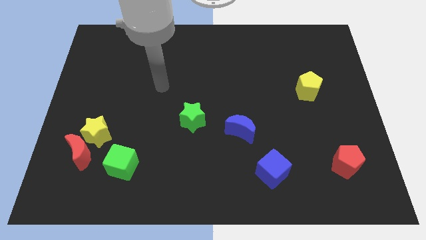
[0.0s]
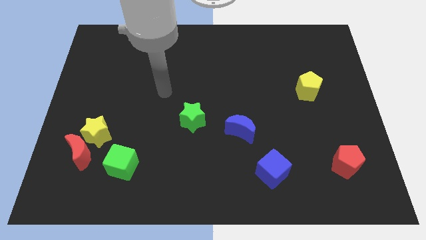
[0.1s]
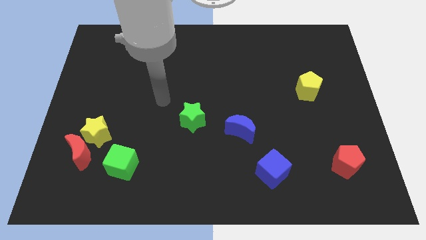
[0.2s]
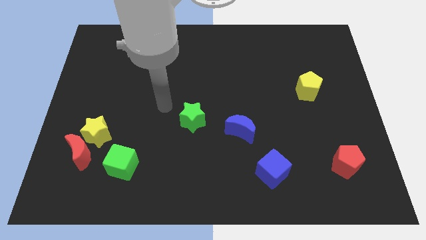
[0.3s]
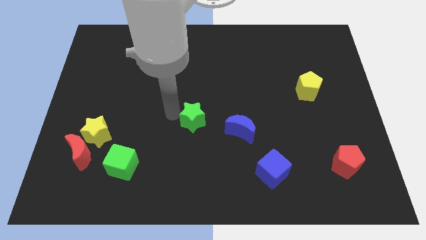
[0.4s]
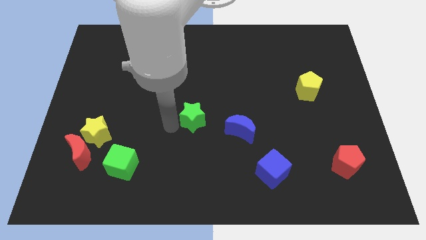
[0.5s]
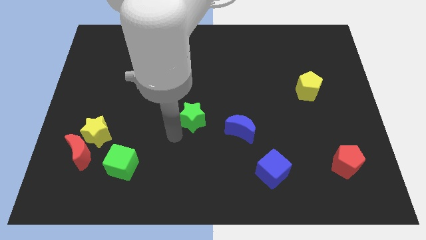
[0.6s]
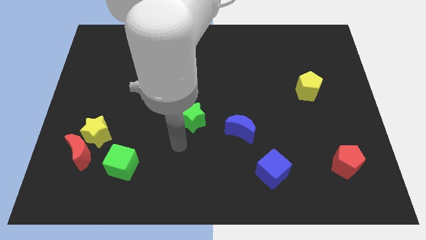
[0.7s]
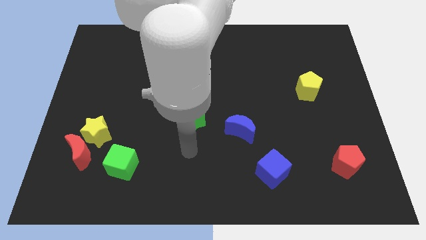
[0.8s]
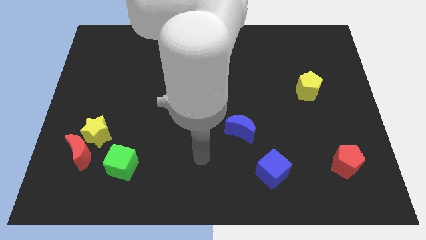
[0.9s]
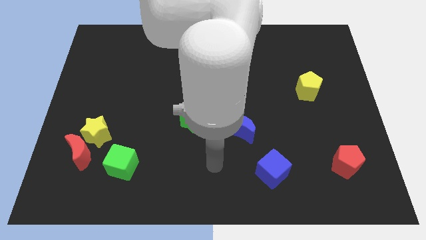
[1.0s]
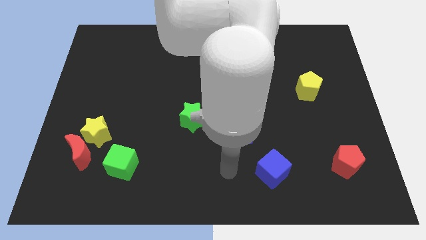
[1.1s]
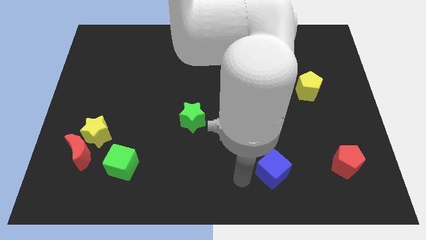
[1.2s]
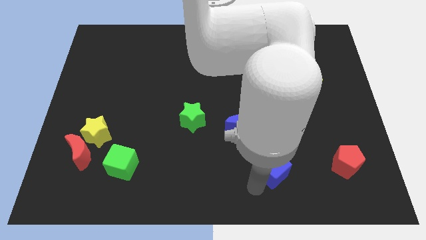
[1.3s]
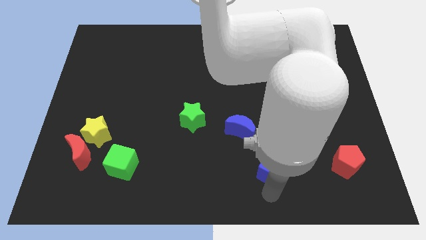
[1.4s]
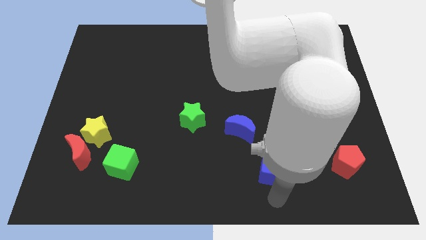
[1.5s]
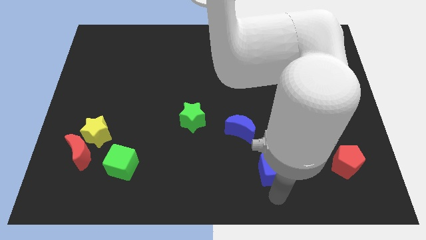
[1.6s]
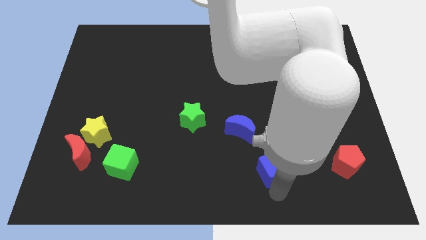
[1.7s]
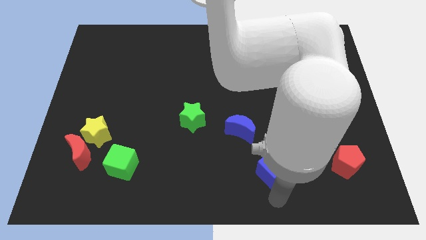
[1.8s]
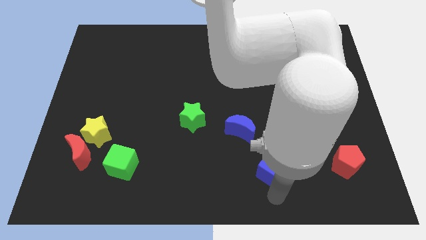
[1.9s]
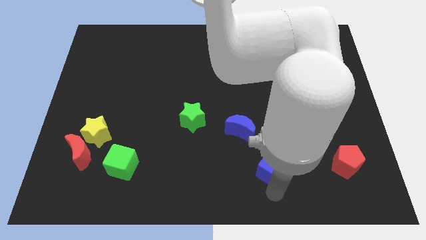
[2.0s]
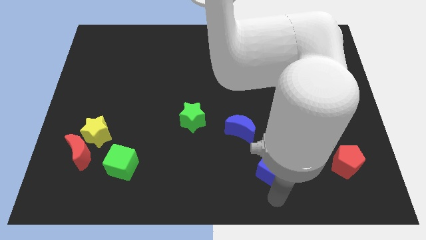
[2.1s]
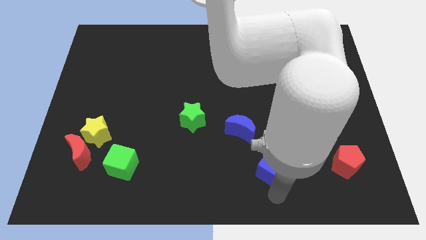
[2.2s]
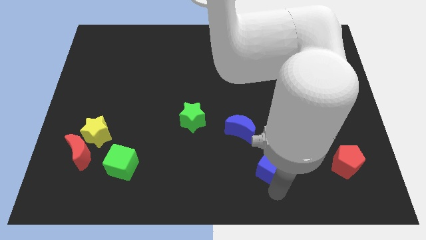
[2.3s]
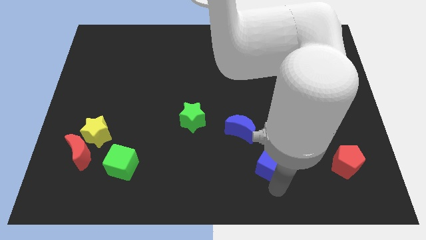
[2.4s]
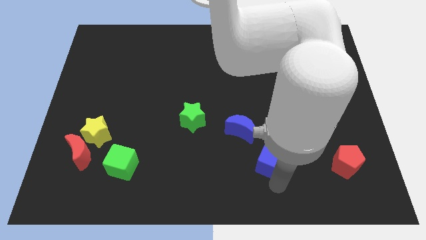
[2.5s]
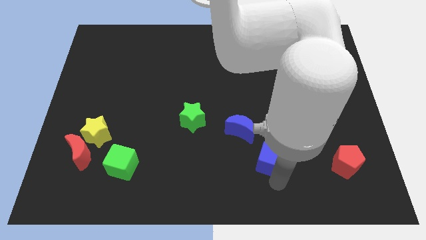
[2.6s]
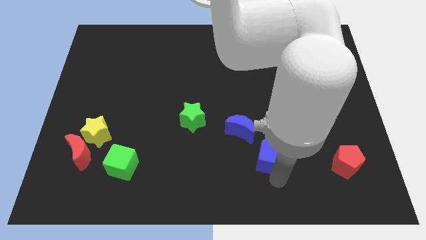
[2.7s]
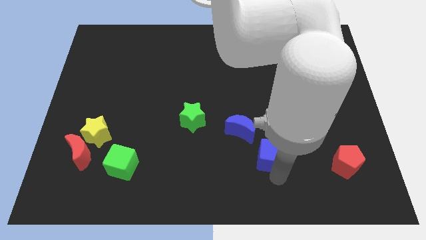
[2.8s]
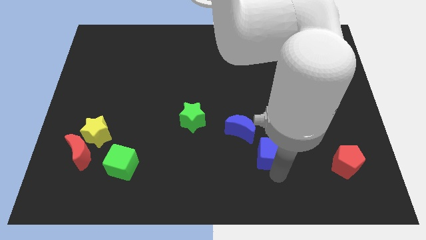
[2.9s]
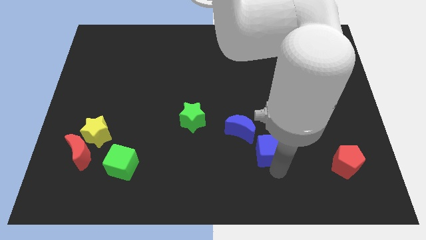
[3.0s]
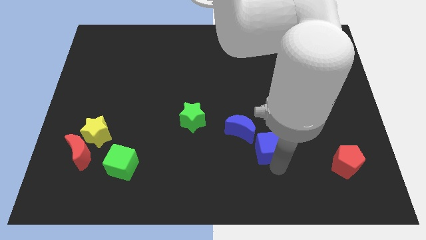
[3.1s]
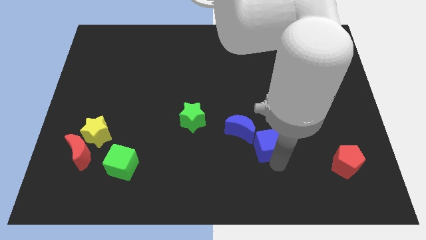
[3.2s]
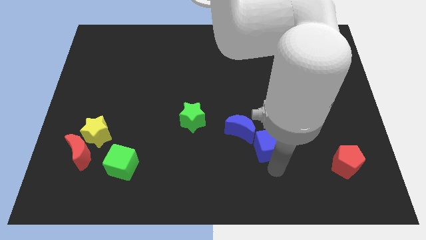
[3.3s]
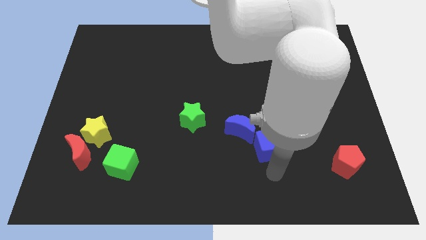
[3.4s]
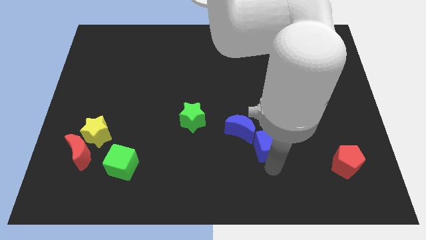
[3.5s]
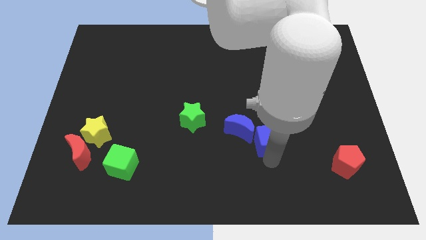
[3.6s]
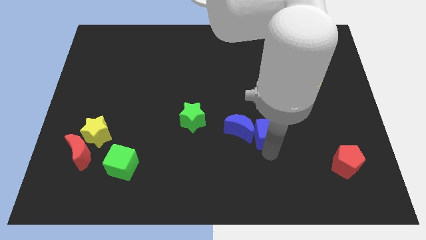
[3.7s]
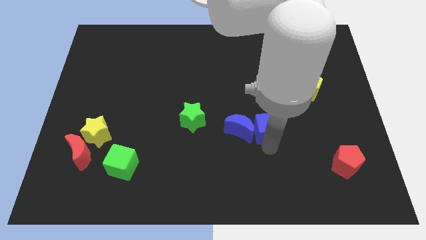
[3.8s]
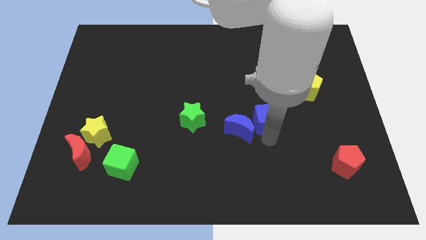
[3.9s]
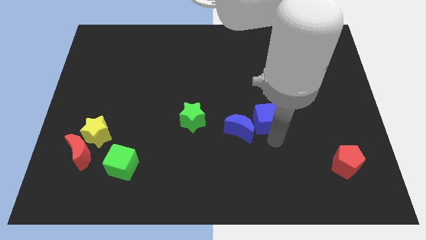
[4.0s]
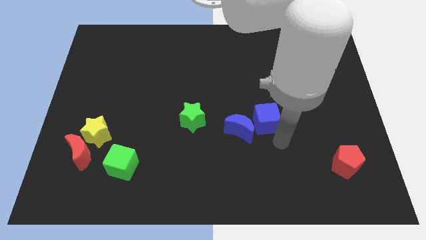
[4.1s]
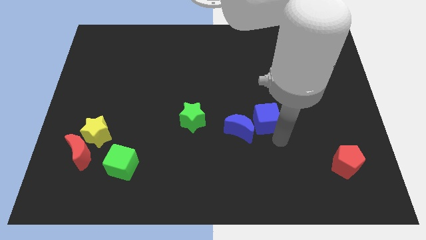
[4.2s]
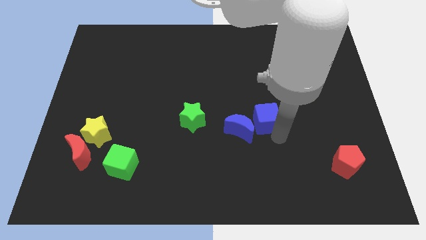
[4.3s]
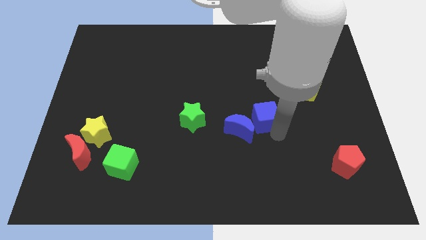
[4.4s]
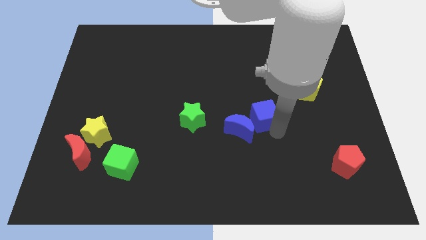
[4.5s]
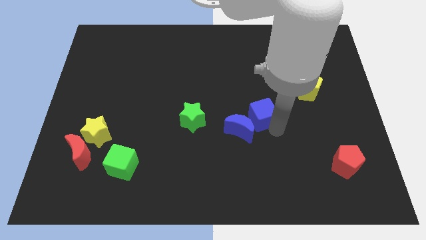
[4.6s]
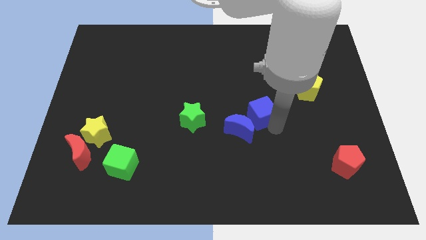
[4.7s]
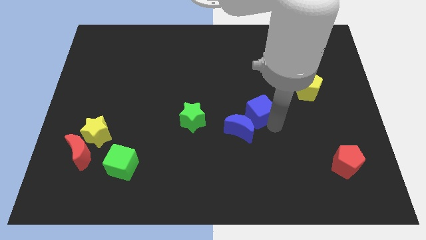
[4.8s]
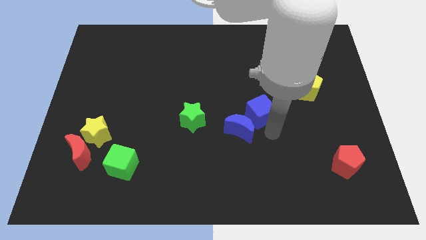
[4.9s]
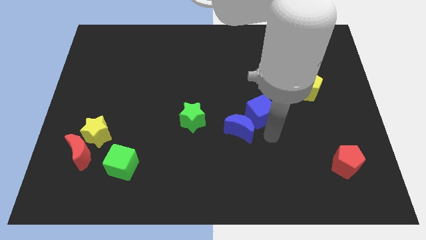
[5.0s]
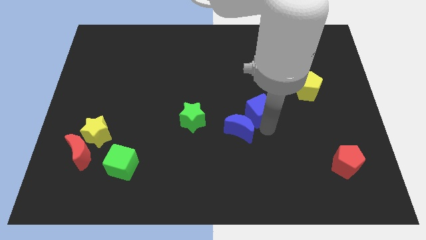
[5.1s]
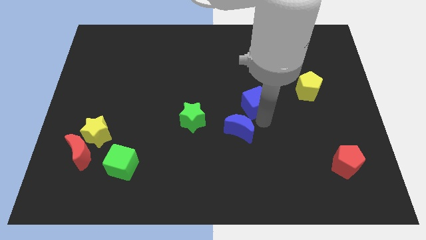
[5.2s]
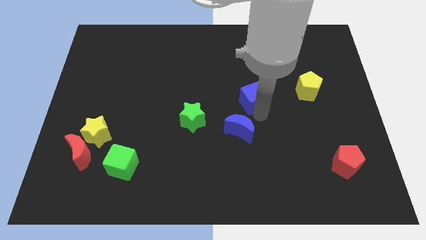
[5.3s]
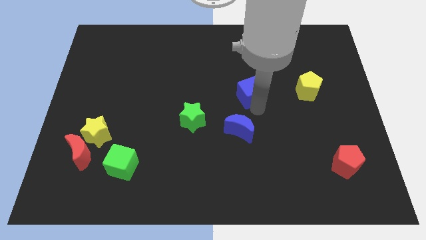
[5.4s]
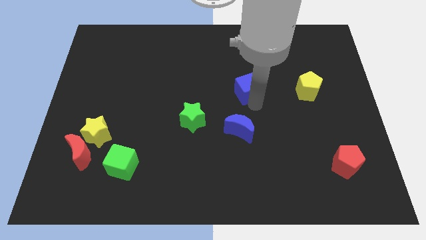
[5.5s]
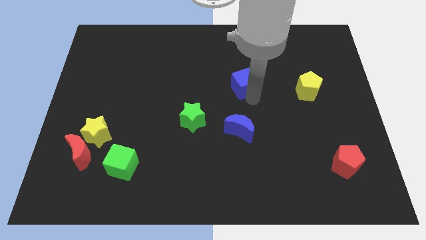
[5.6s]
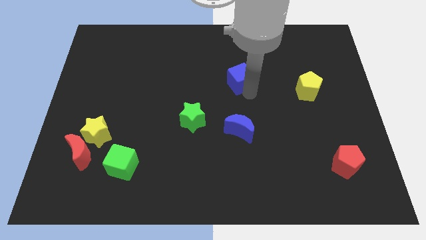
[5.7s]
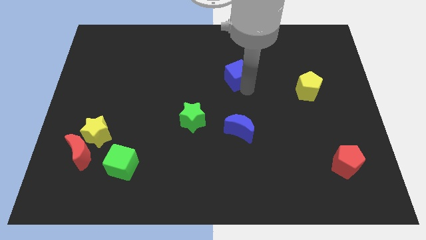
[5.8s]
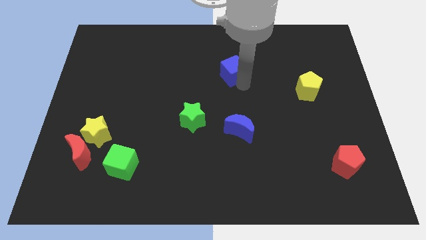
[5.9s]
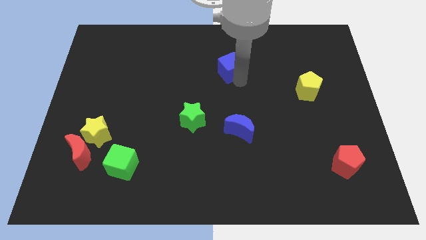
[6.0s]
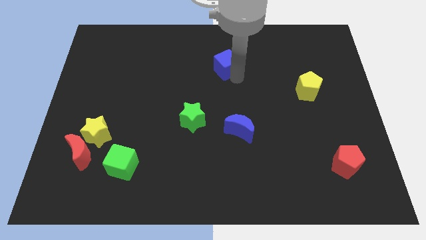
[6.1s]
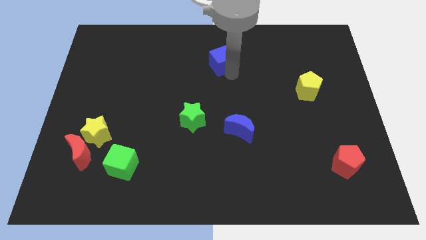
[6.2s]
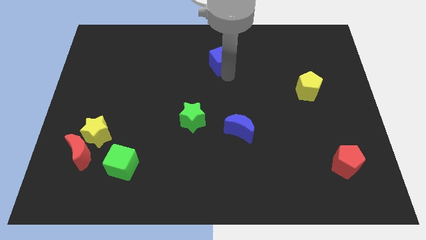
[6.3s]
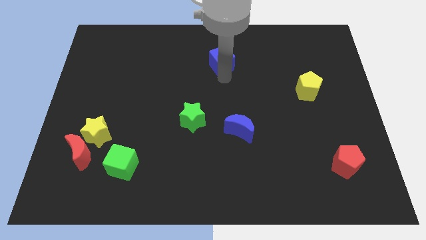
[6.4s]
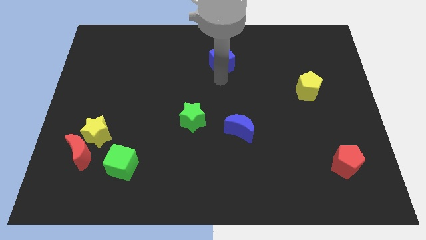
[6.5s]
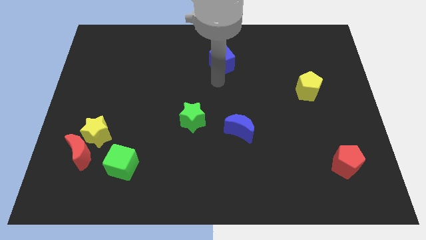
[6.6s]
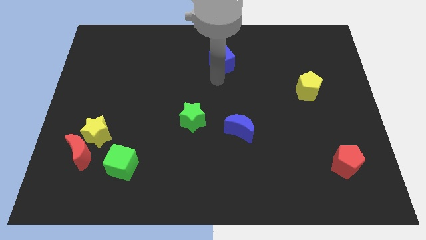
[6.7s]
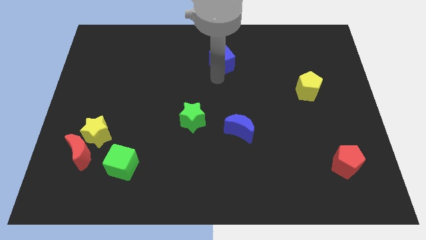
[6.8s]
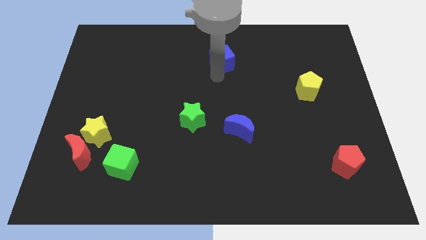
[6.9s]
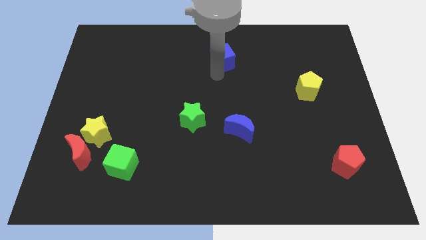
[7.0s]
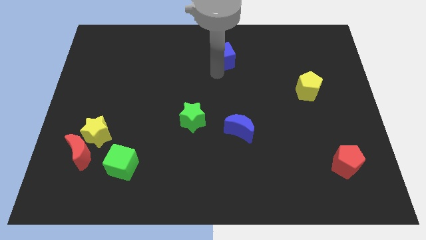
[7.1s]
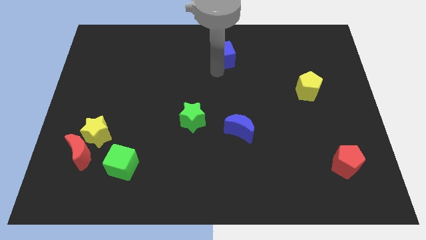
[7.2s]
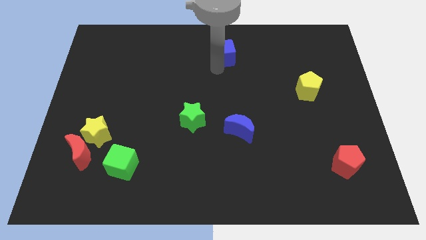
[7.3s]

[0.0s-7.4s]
put the blue cube to the top
